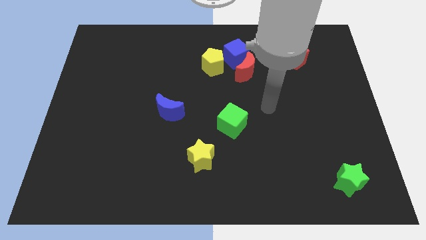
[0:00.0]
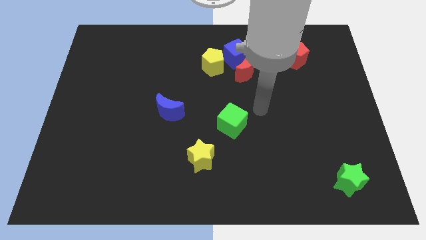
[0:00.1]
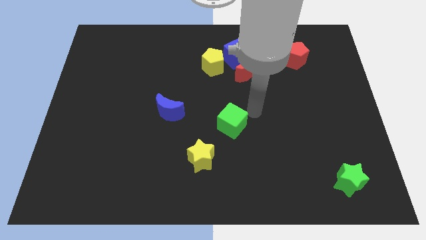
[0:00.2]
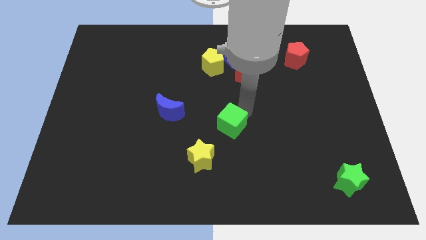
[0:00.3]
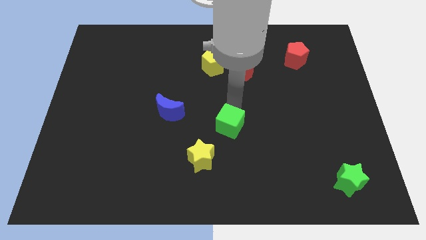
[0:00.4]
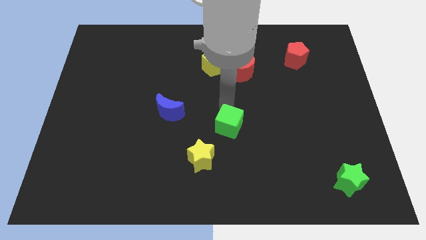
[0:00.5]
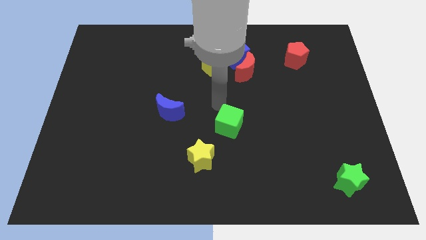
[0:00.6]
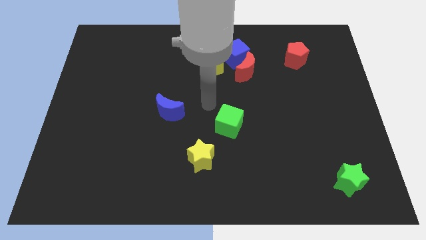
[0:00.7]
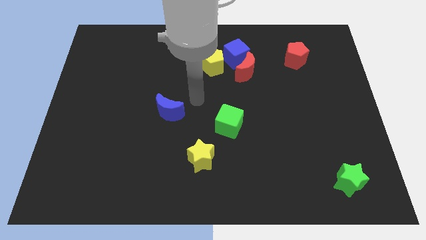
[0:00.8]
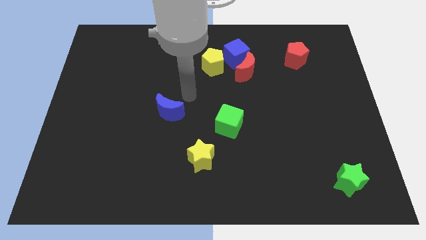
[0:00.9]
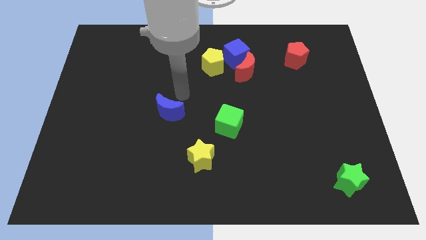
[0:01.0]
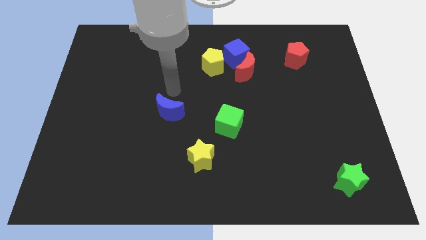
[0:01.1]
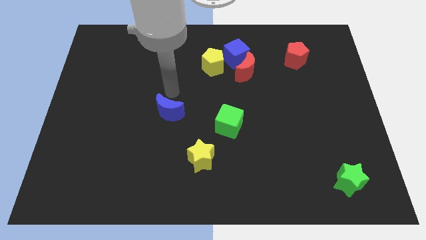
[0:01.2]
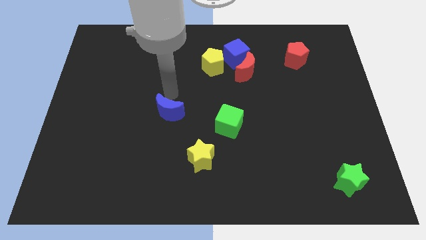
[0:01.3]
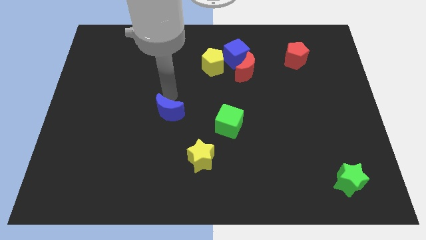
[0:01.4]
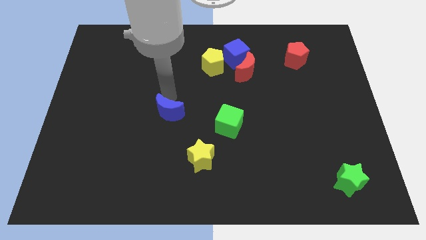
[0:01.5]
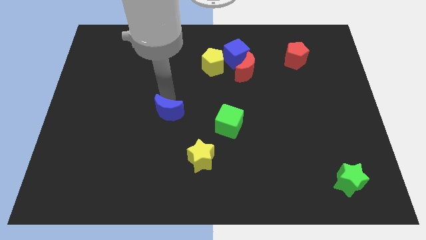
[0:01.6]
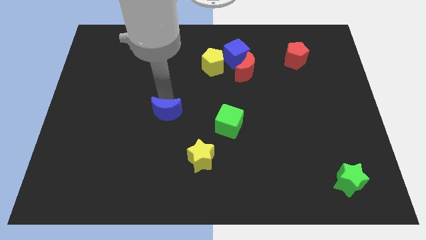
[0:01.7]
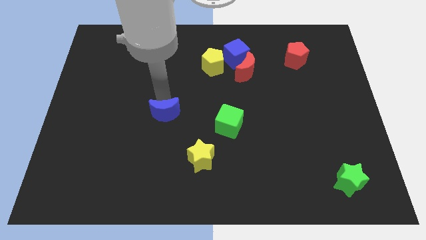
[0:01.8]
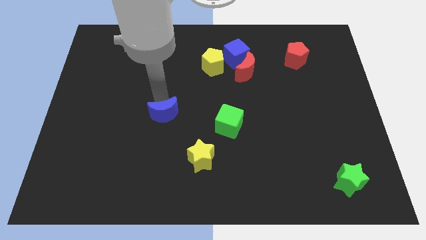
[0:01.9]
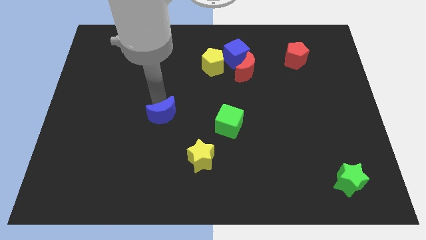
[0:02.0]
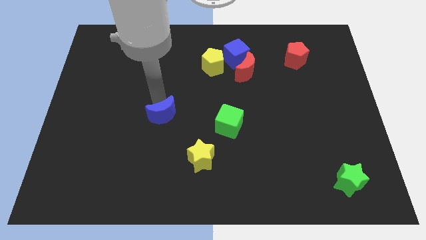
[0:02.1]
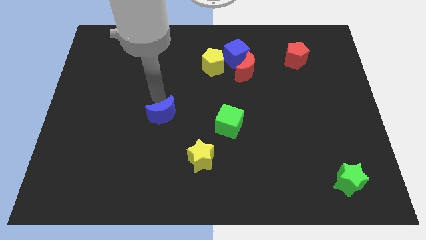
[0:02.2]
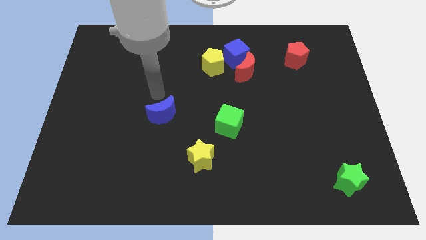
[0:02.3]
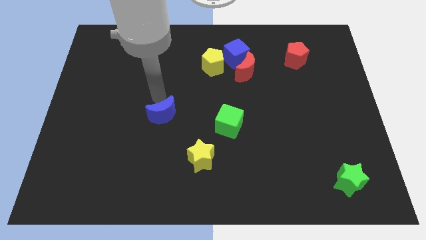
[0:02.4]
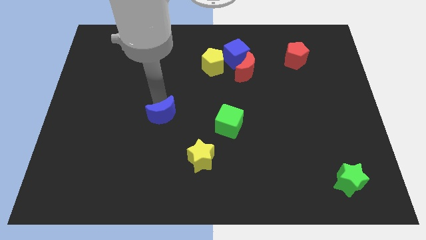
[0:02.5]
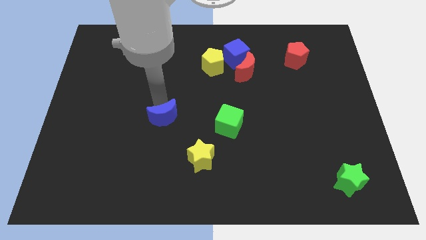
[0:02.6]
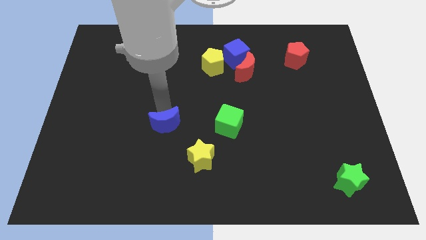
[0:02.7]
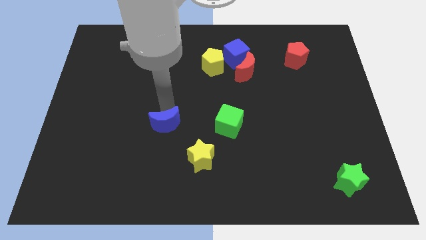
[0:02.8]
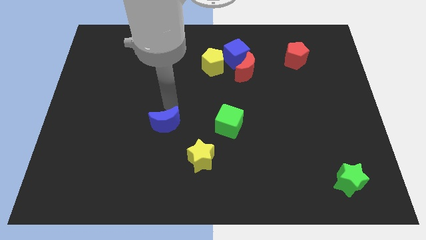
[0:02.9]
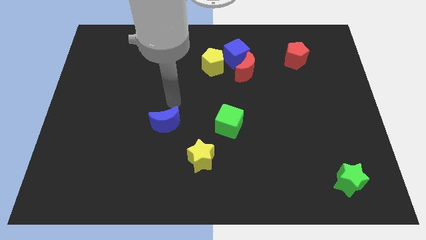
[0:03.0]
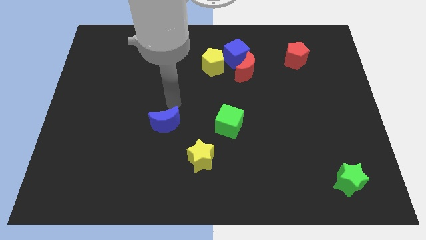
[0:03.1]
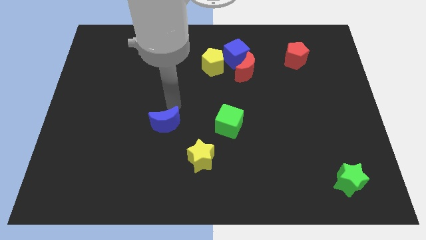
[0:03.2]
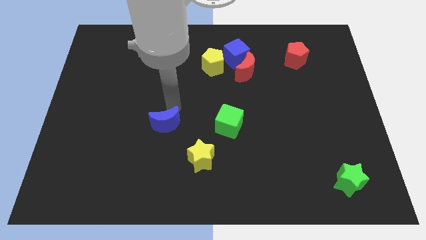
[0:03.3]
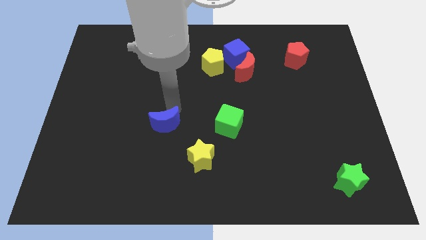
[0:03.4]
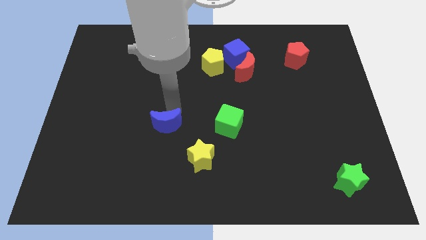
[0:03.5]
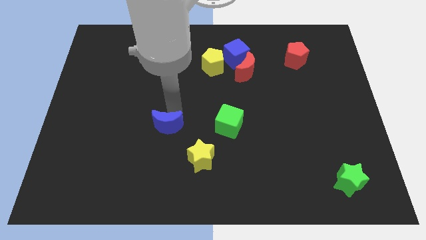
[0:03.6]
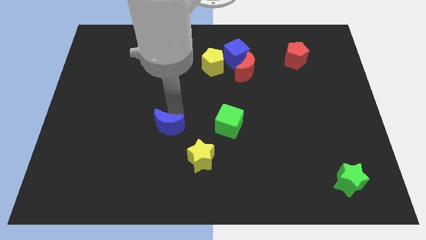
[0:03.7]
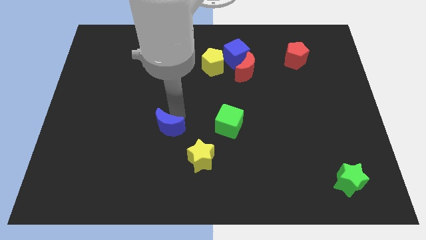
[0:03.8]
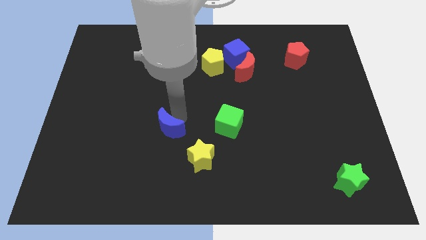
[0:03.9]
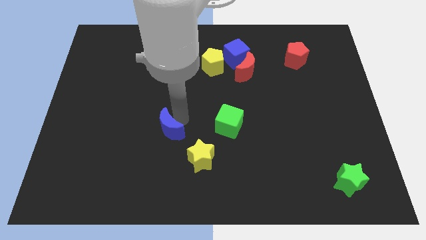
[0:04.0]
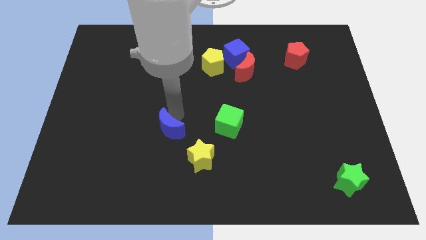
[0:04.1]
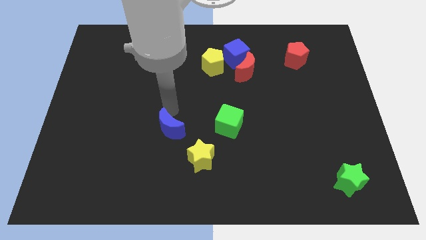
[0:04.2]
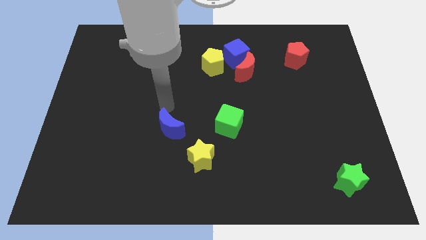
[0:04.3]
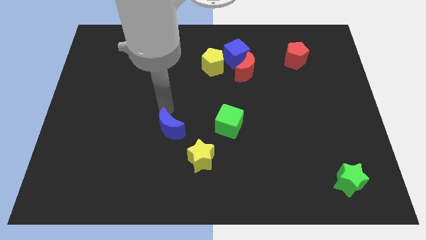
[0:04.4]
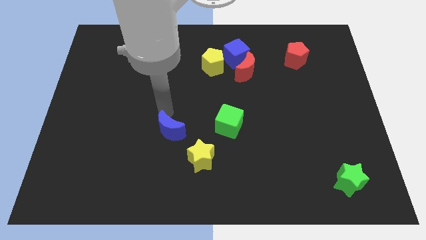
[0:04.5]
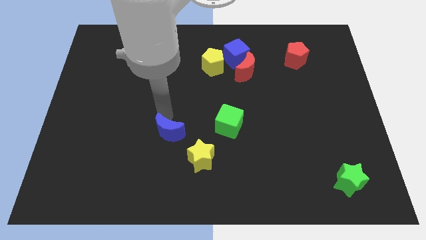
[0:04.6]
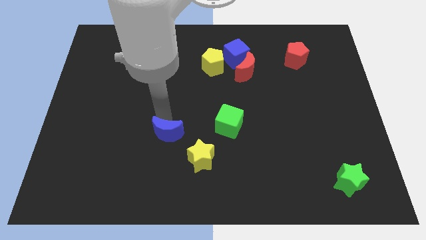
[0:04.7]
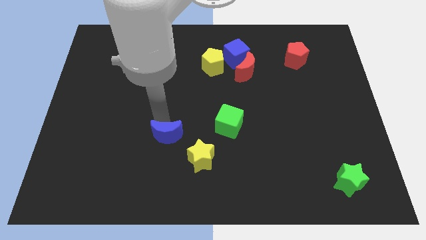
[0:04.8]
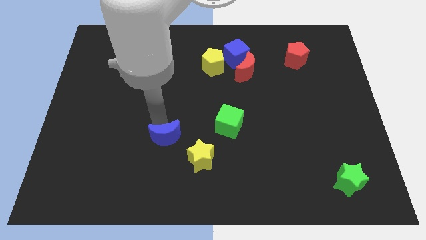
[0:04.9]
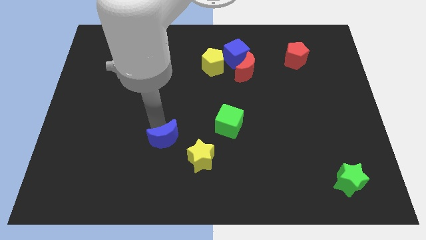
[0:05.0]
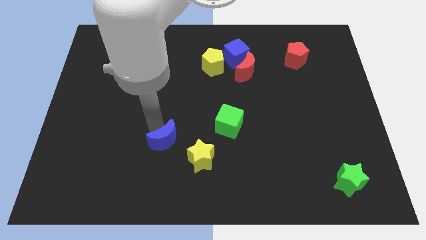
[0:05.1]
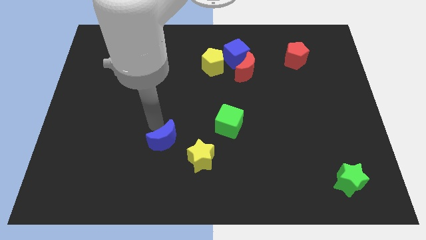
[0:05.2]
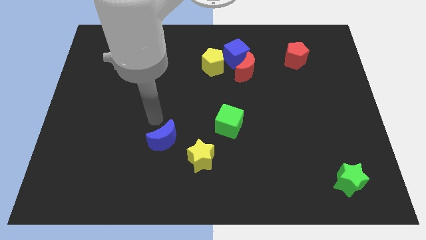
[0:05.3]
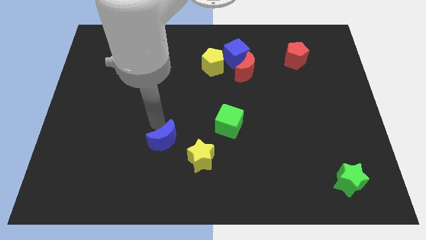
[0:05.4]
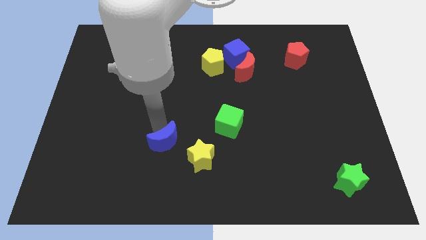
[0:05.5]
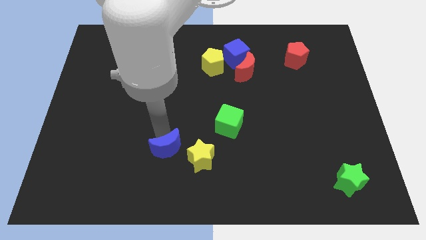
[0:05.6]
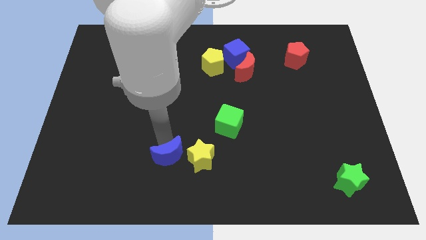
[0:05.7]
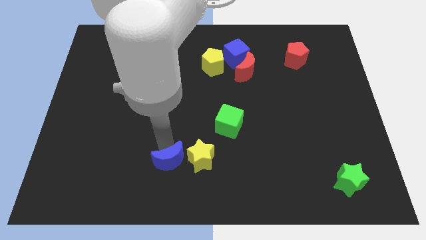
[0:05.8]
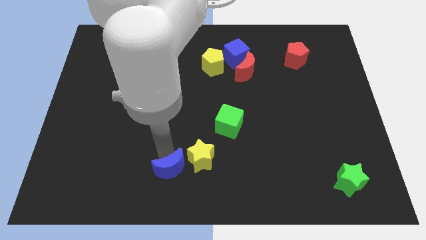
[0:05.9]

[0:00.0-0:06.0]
move the blue moon to the bottom
